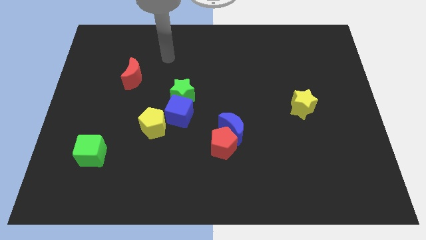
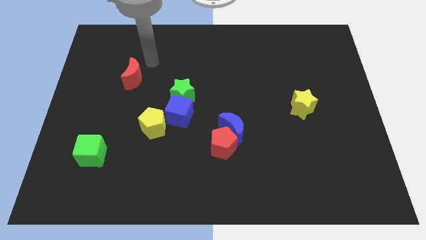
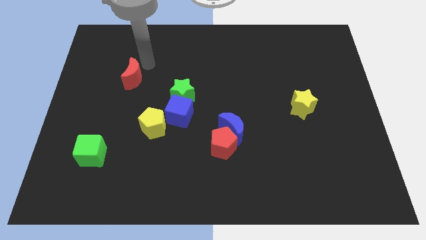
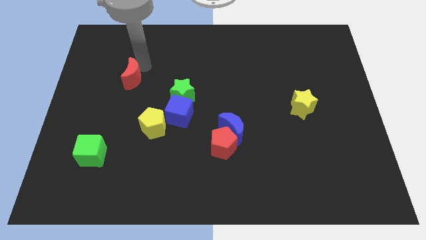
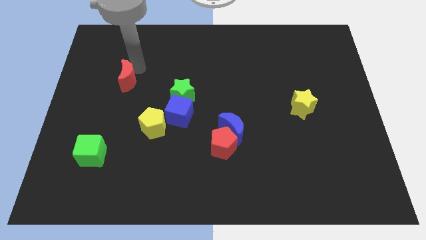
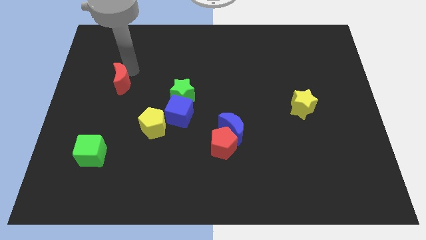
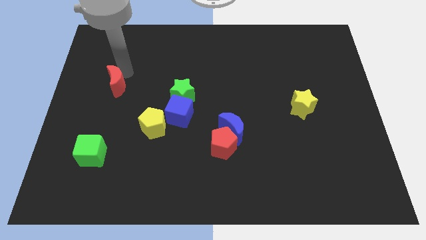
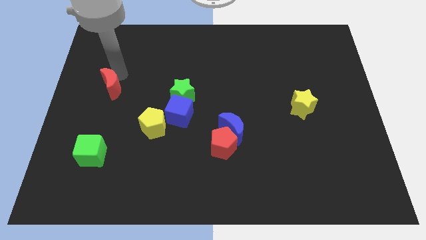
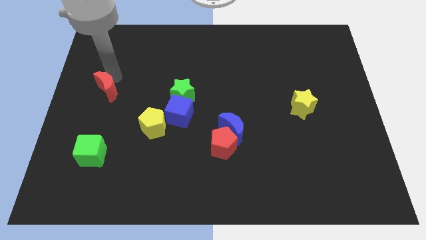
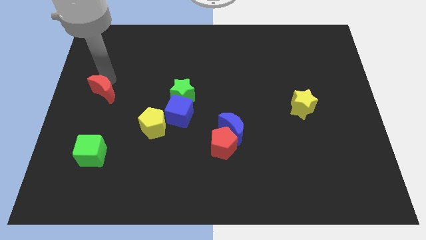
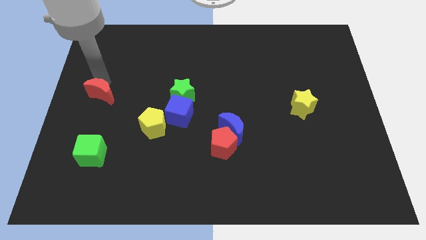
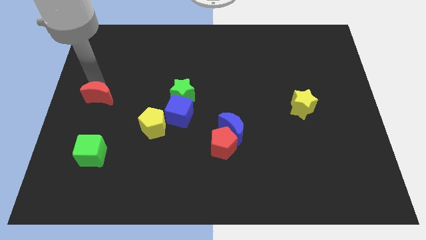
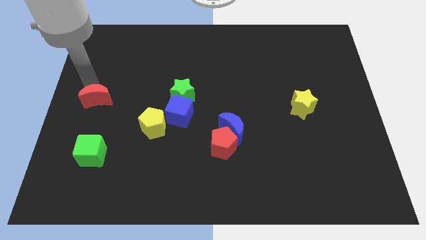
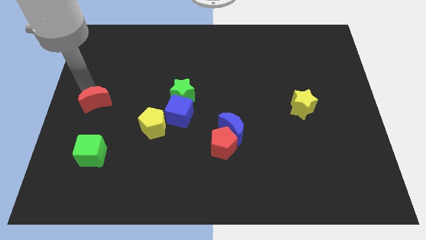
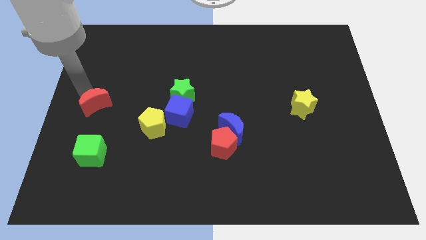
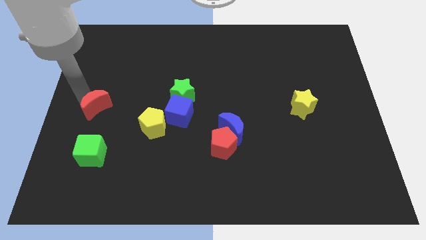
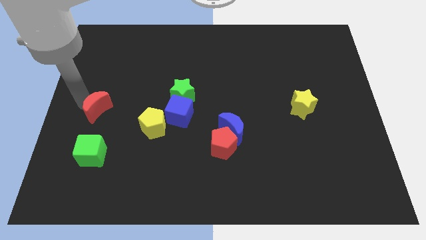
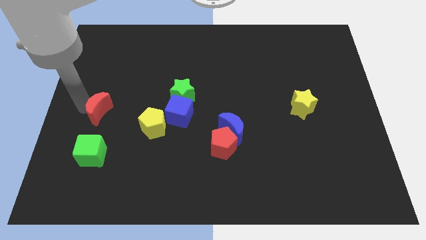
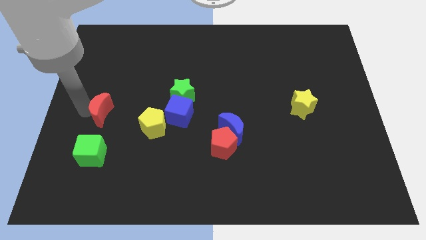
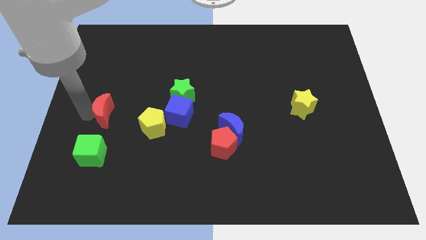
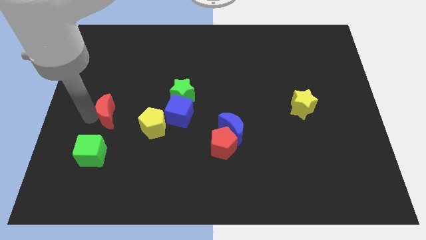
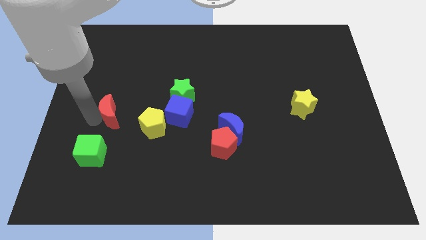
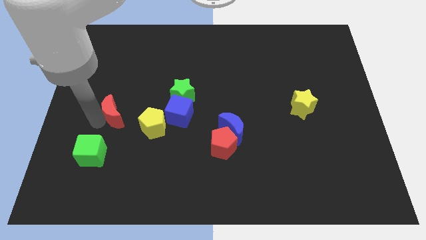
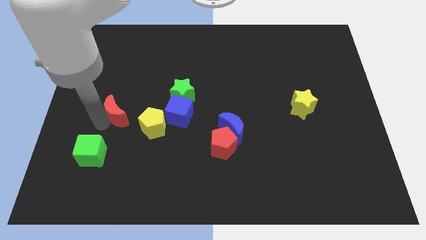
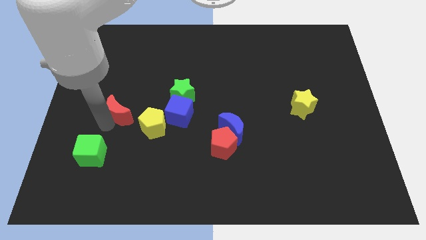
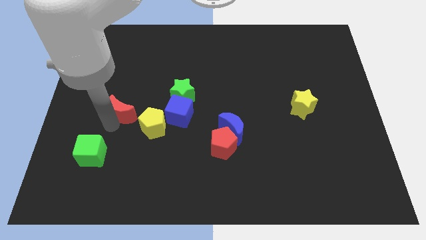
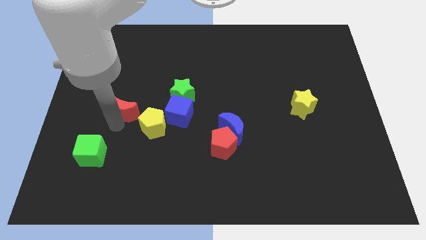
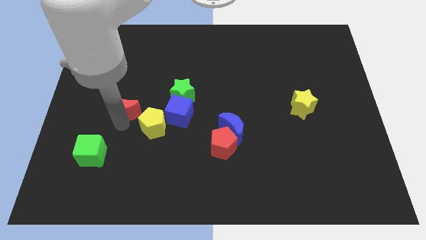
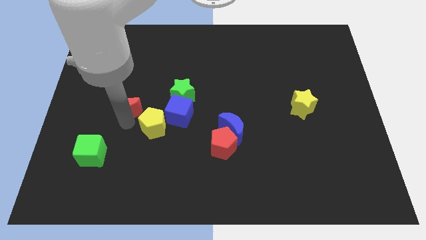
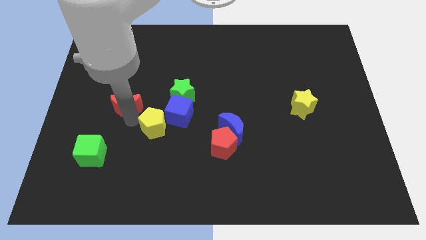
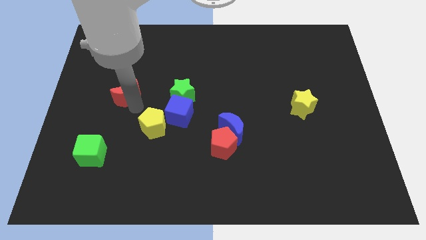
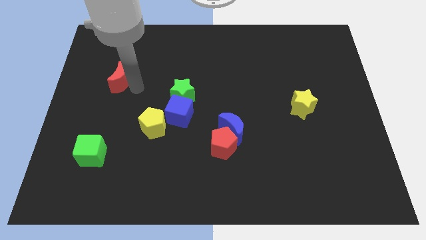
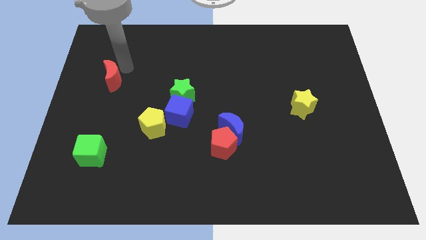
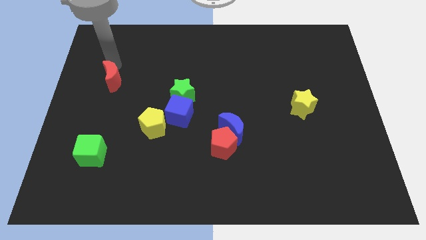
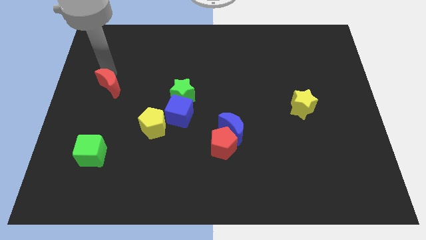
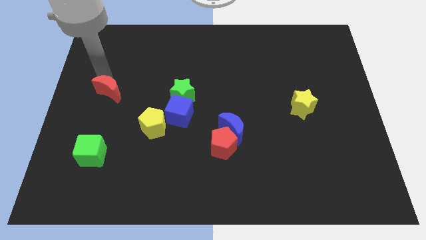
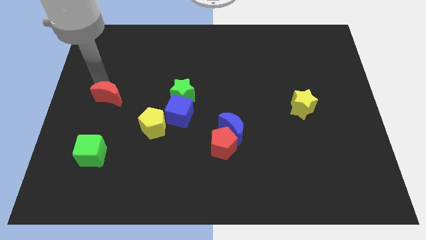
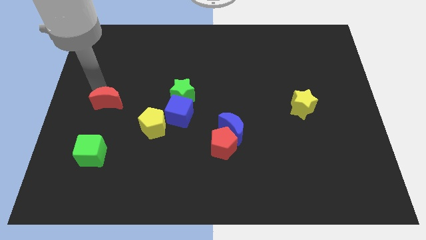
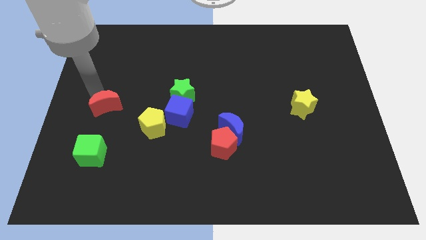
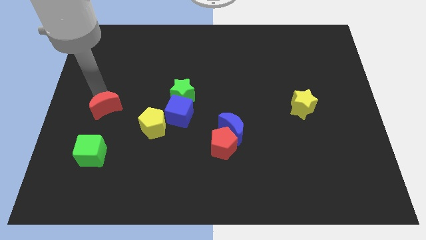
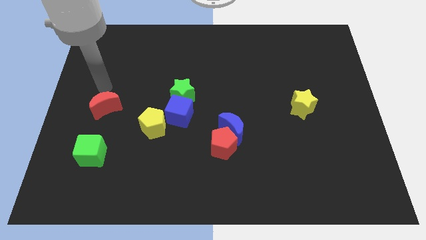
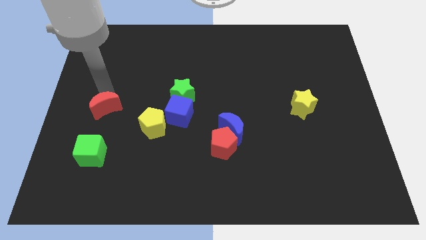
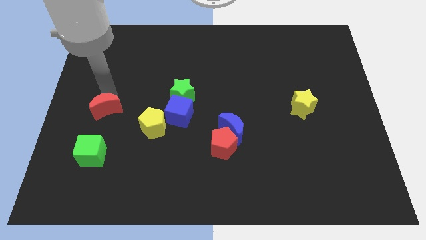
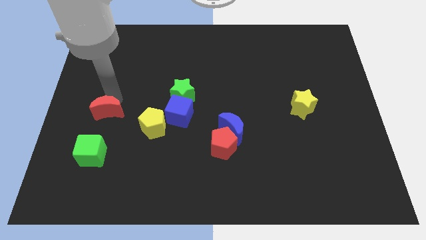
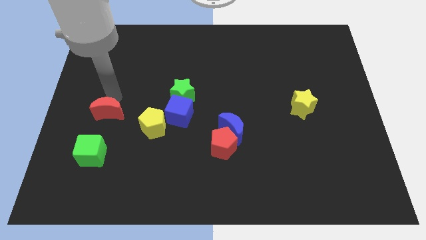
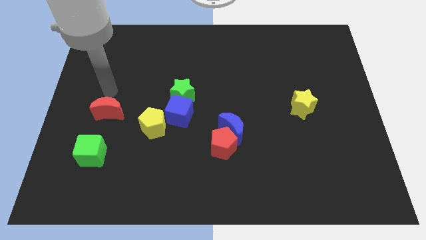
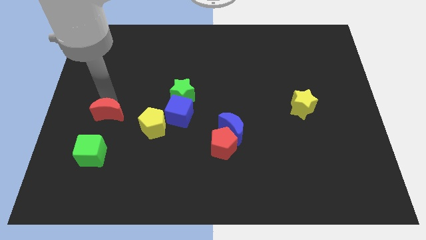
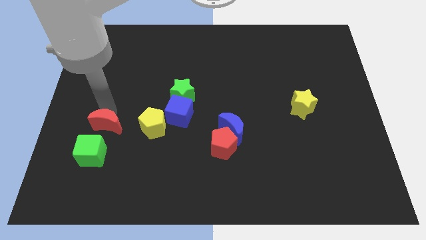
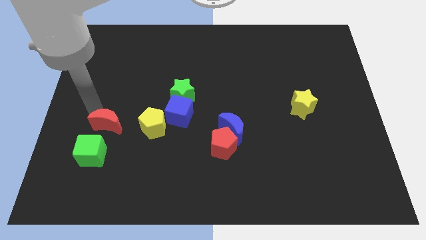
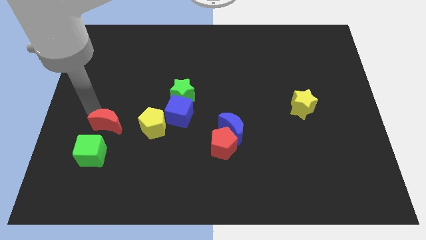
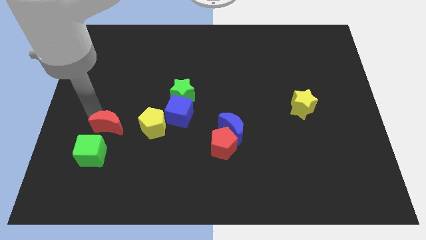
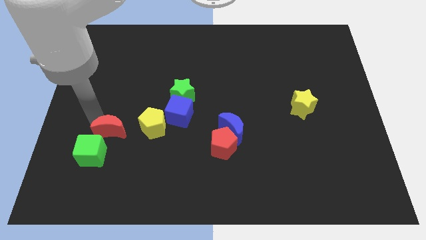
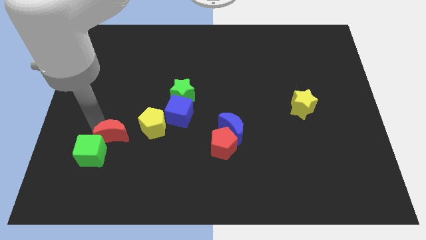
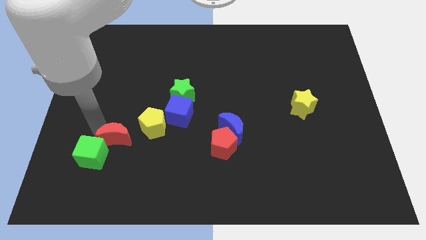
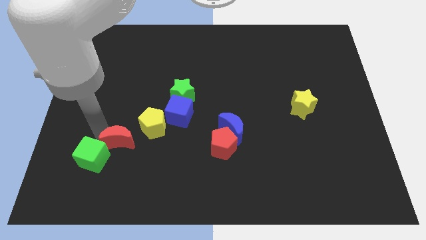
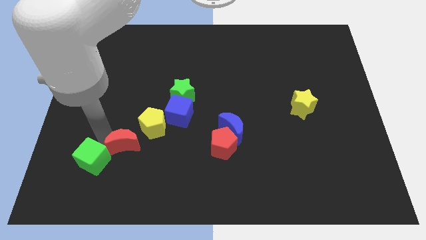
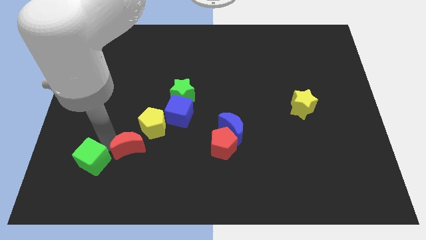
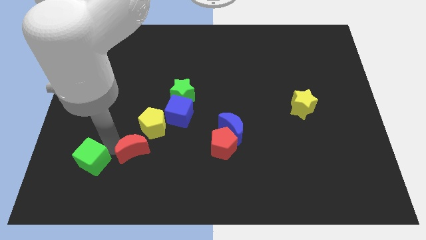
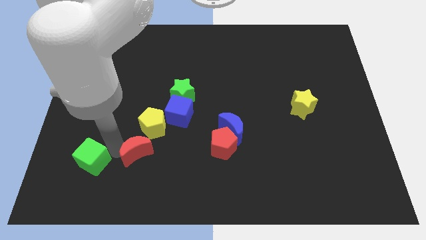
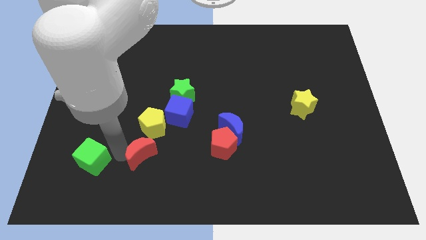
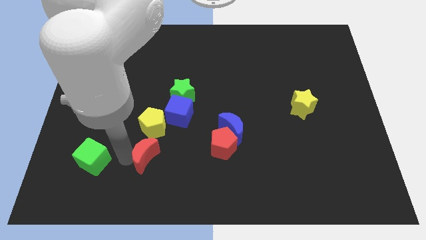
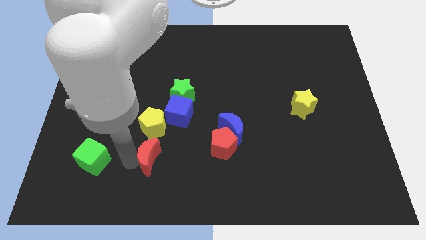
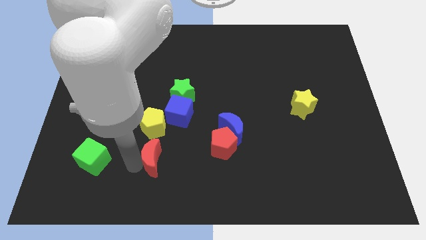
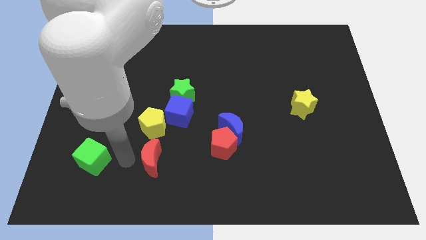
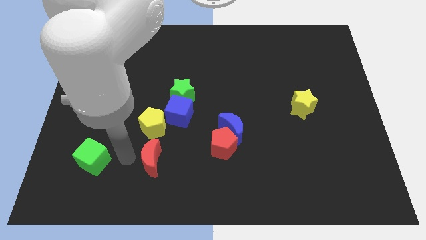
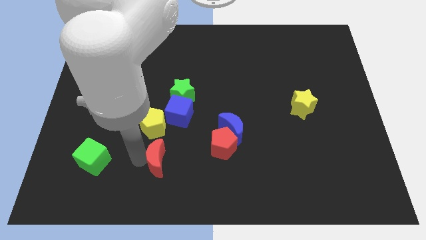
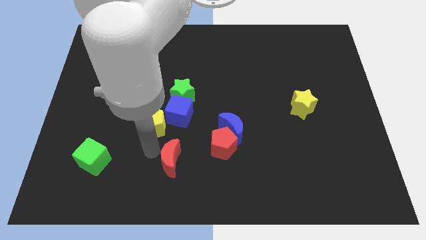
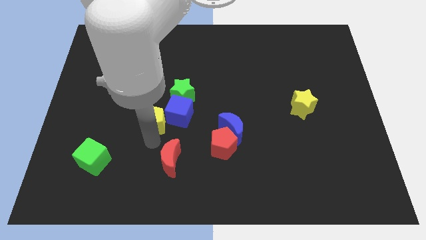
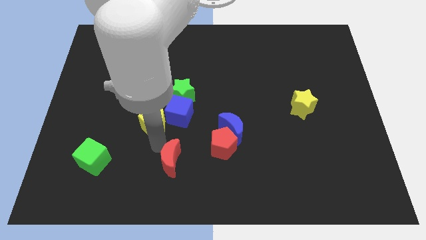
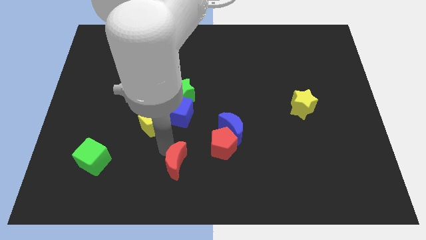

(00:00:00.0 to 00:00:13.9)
slide the red moon to the bottom side
